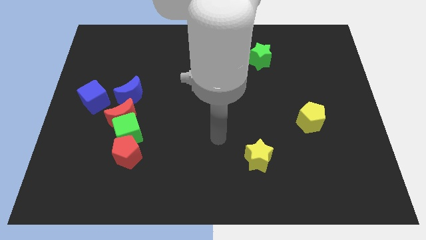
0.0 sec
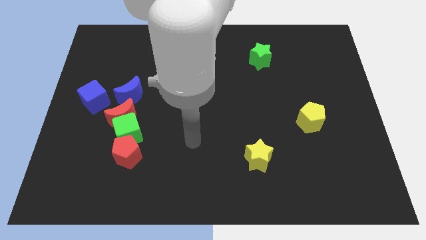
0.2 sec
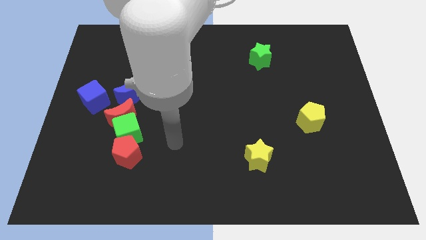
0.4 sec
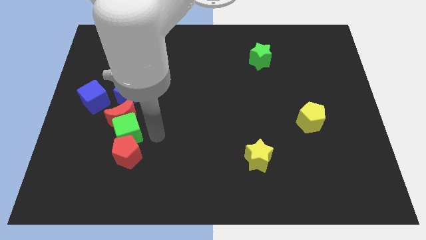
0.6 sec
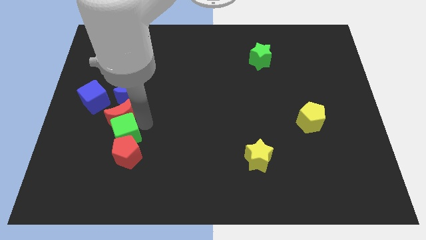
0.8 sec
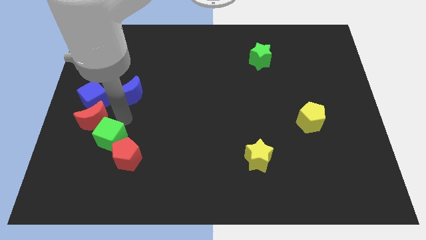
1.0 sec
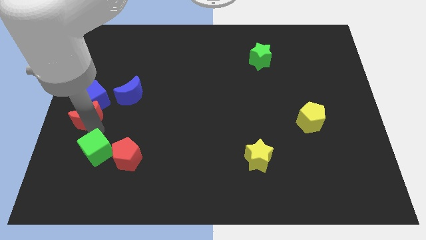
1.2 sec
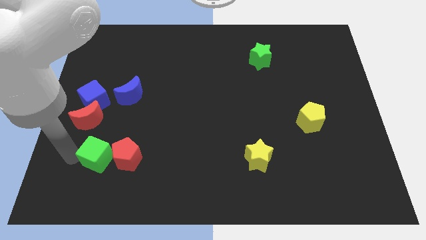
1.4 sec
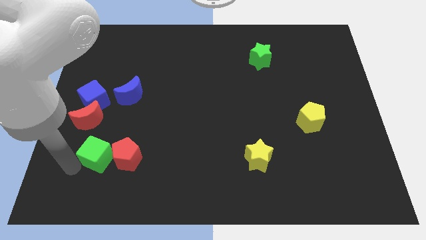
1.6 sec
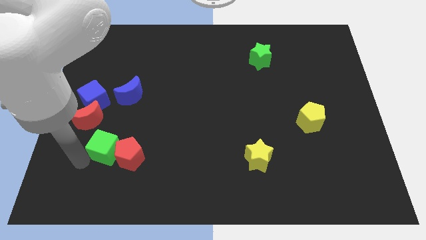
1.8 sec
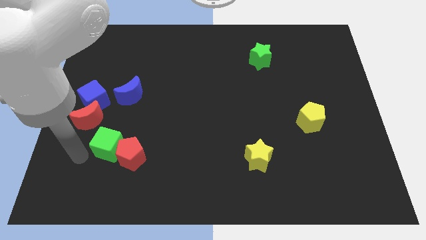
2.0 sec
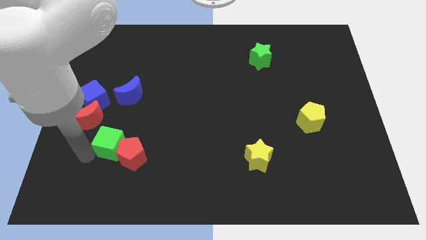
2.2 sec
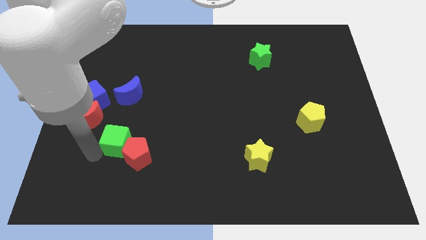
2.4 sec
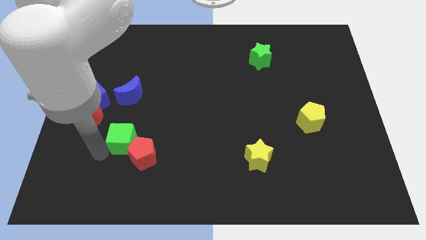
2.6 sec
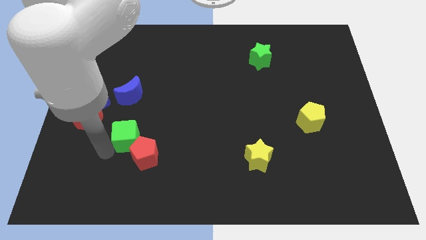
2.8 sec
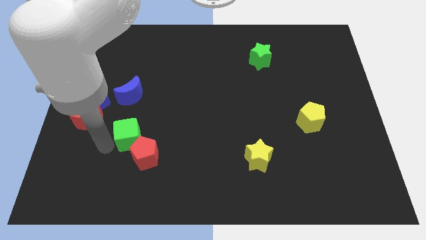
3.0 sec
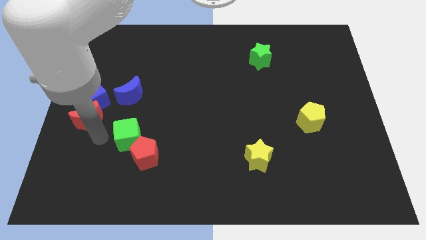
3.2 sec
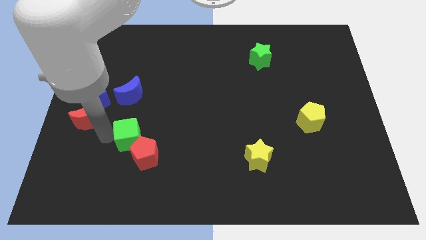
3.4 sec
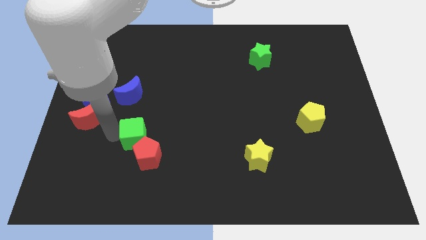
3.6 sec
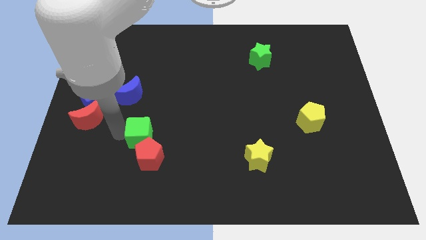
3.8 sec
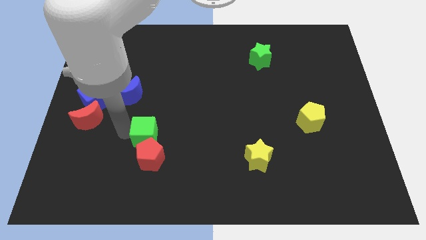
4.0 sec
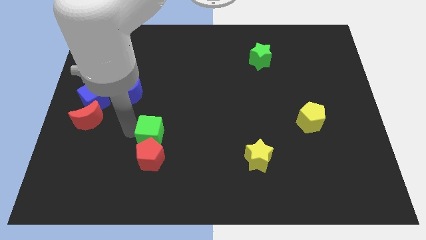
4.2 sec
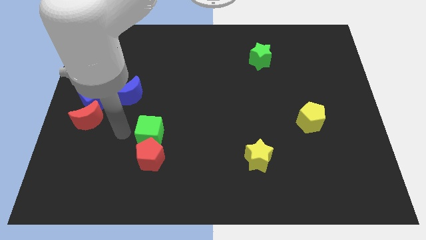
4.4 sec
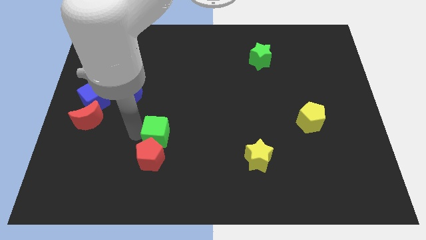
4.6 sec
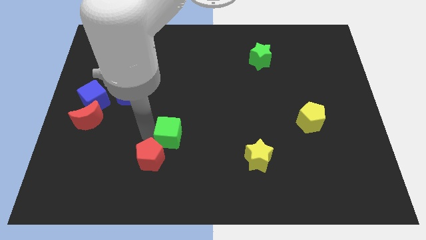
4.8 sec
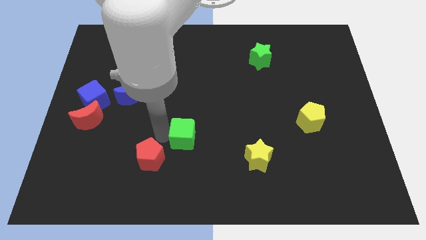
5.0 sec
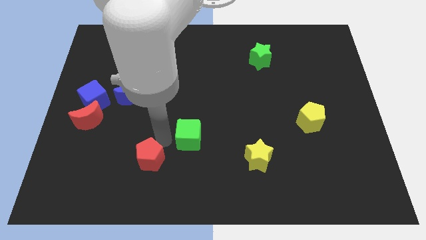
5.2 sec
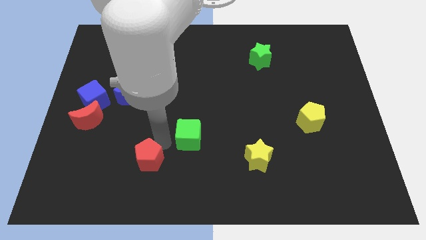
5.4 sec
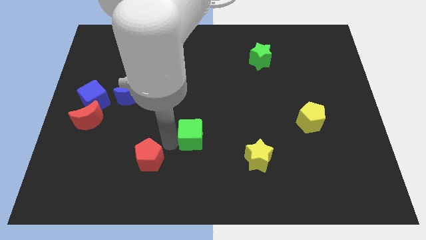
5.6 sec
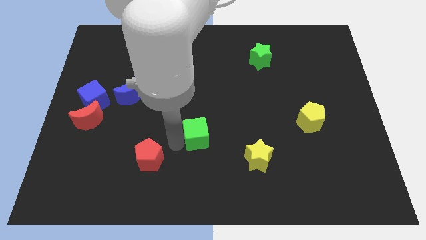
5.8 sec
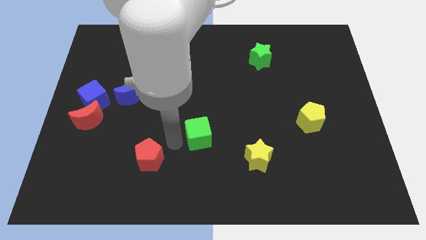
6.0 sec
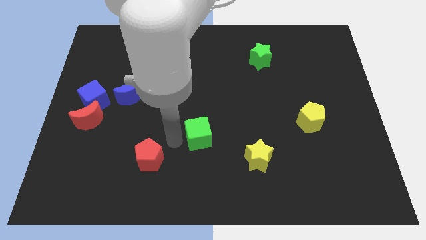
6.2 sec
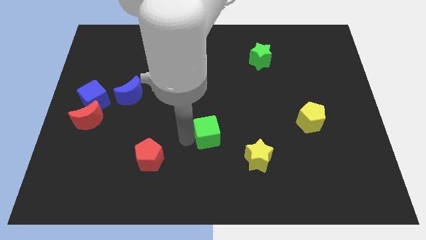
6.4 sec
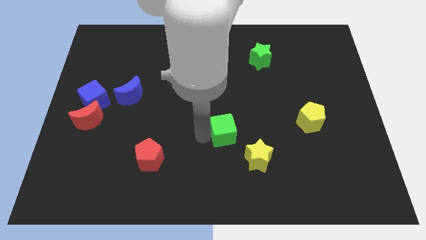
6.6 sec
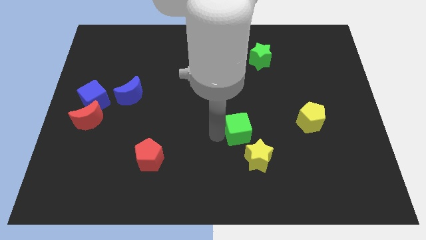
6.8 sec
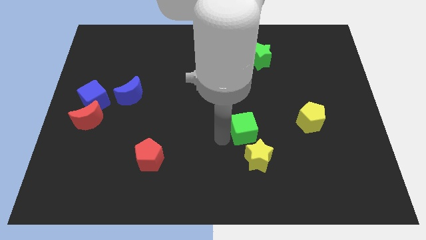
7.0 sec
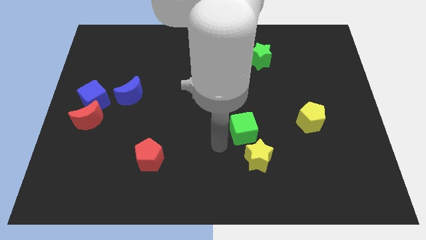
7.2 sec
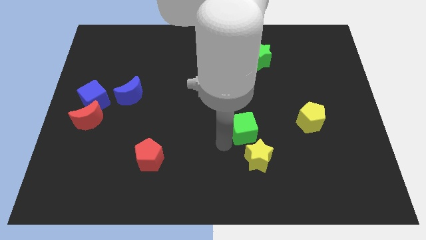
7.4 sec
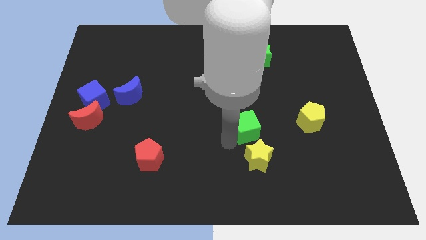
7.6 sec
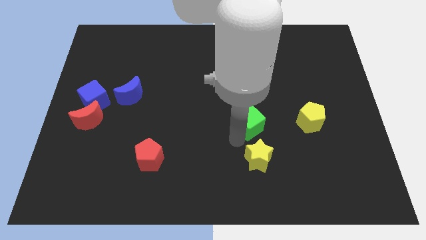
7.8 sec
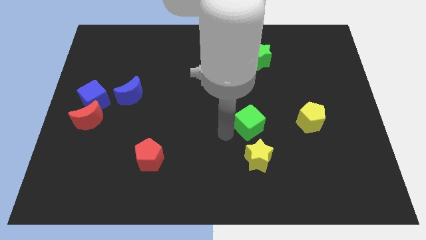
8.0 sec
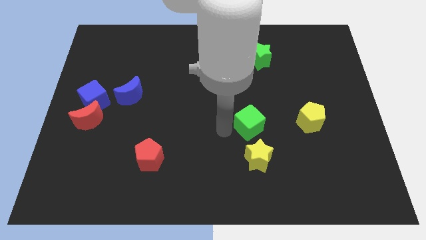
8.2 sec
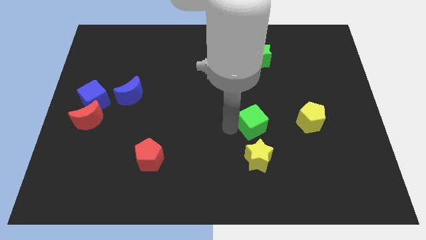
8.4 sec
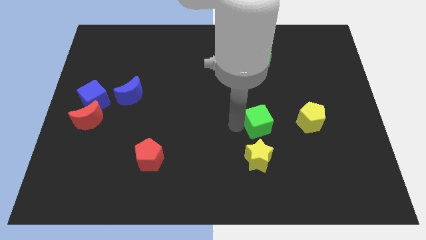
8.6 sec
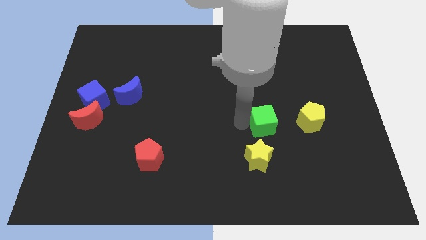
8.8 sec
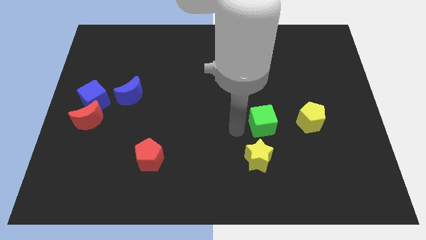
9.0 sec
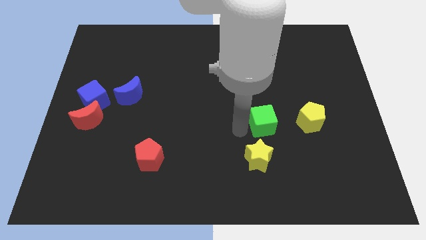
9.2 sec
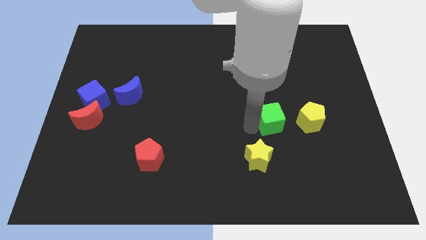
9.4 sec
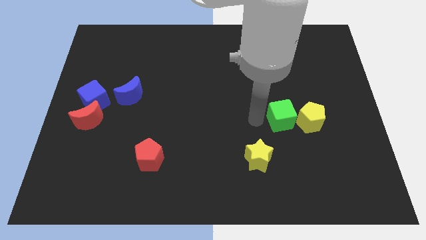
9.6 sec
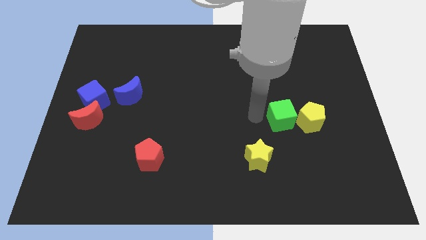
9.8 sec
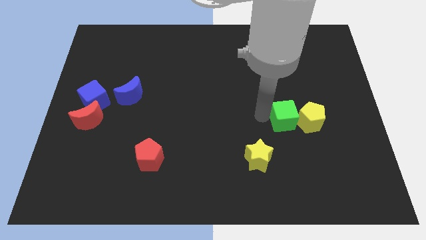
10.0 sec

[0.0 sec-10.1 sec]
put the green cube towards the yellow pentagon

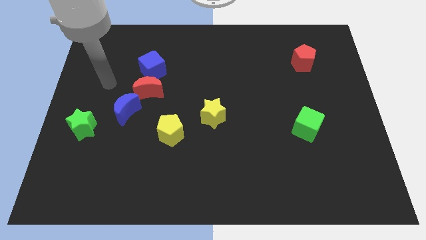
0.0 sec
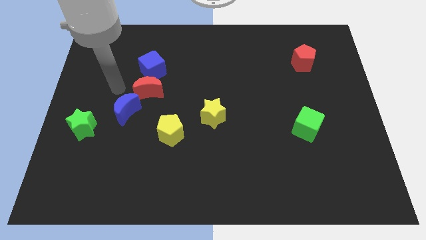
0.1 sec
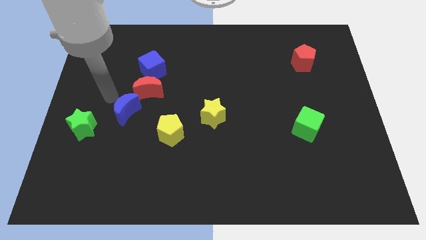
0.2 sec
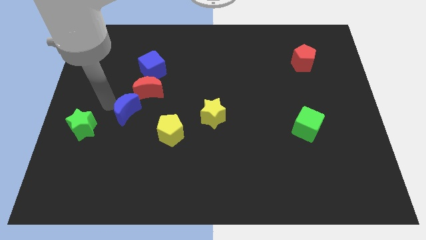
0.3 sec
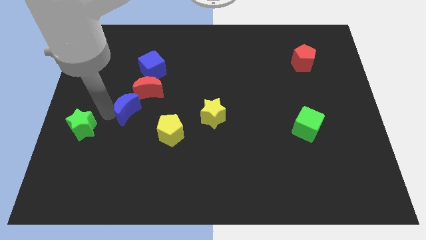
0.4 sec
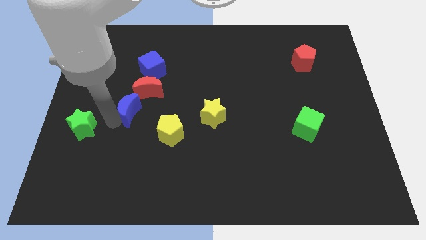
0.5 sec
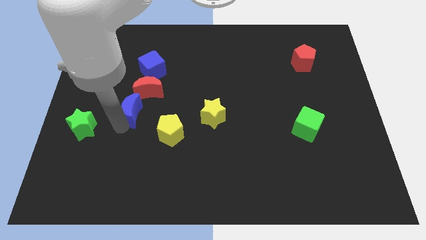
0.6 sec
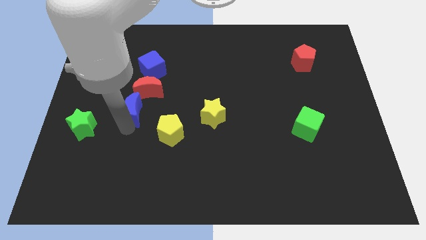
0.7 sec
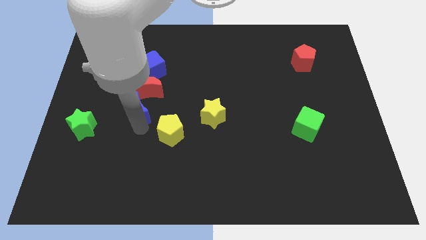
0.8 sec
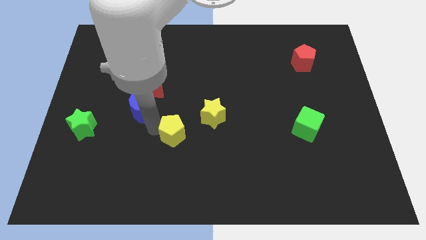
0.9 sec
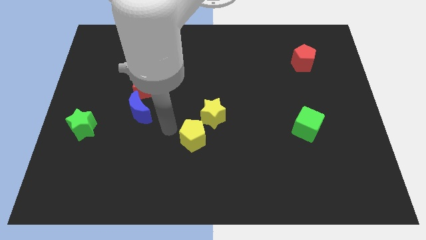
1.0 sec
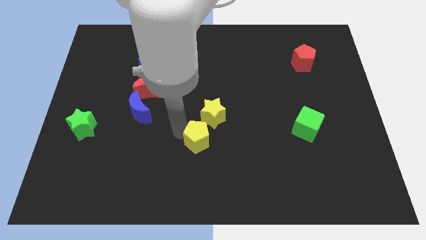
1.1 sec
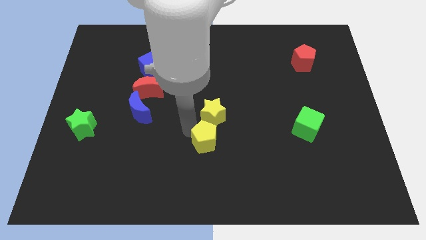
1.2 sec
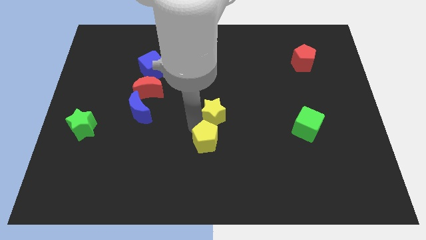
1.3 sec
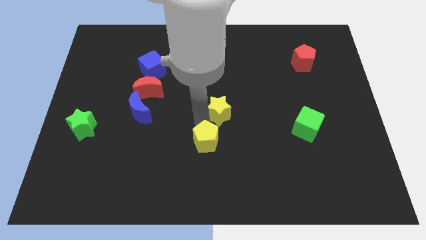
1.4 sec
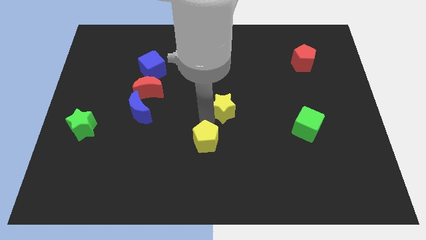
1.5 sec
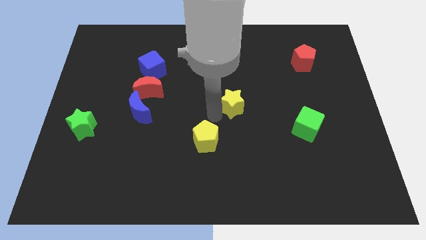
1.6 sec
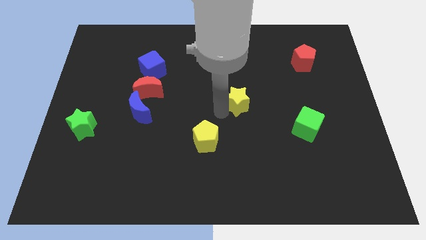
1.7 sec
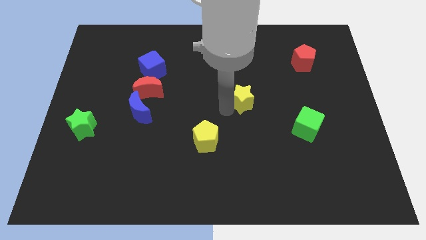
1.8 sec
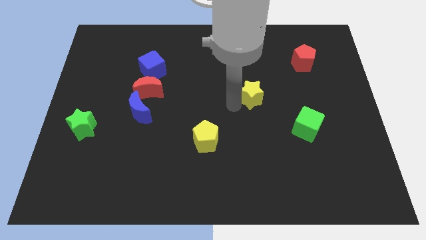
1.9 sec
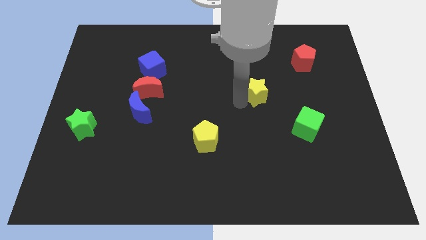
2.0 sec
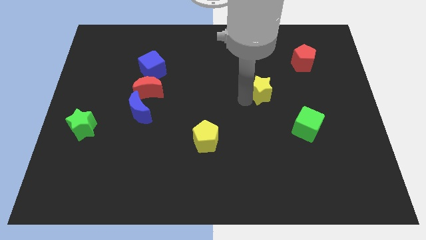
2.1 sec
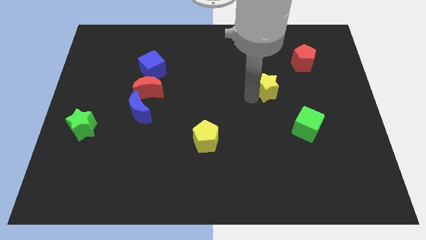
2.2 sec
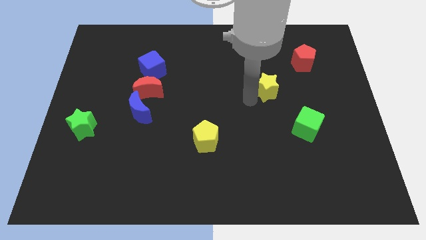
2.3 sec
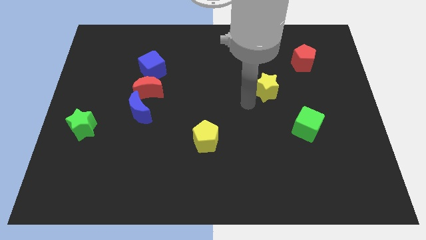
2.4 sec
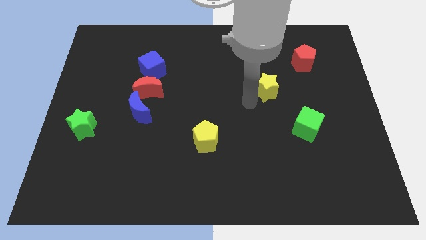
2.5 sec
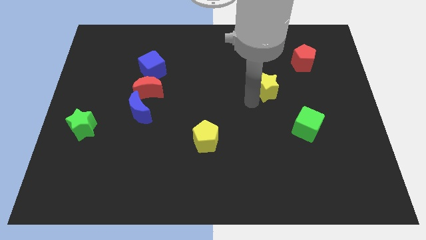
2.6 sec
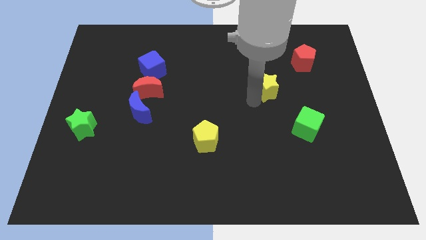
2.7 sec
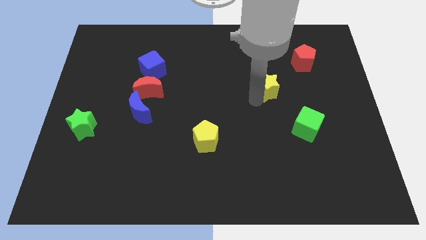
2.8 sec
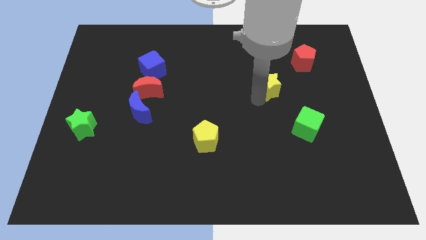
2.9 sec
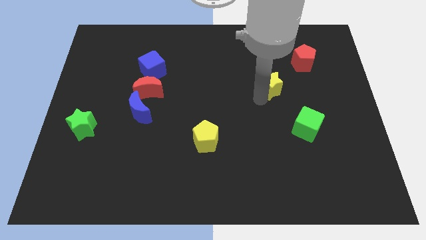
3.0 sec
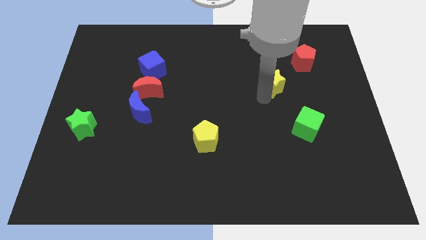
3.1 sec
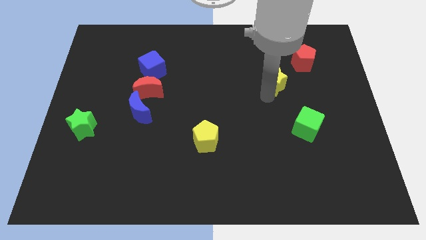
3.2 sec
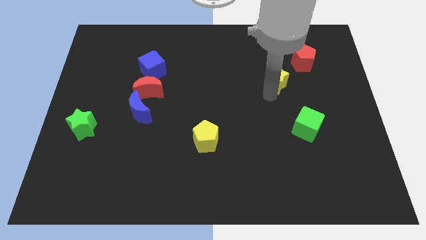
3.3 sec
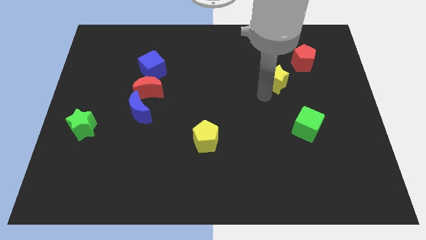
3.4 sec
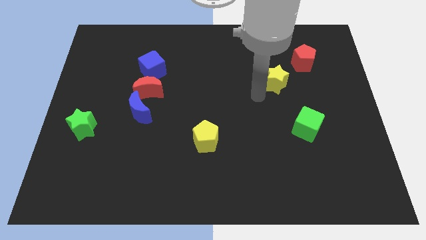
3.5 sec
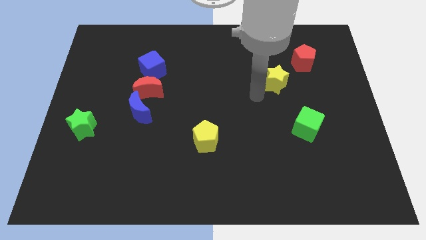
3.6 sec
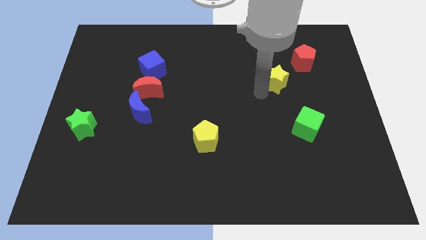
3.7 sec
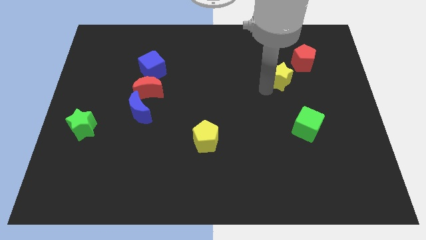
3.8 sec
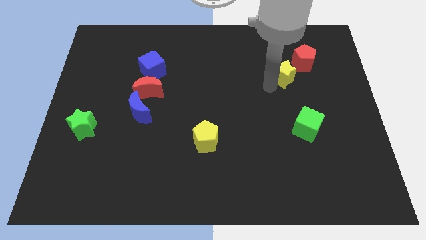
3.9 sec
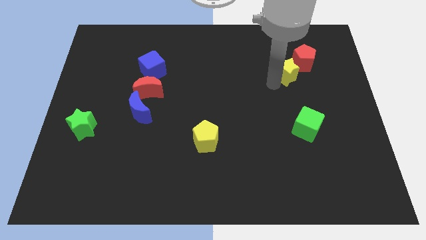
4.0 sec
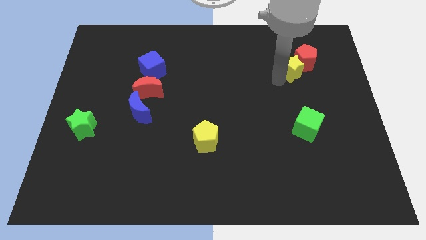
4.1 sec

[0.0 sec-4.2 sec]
move the yellow star towards the red pentagon
